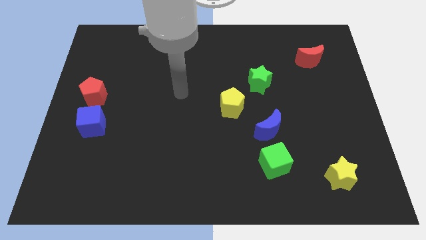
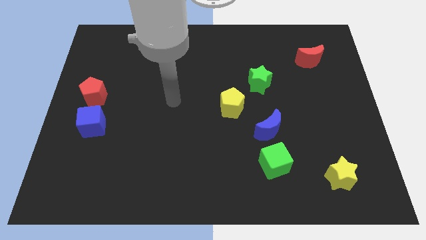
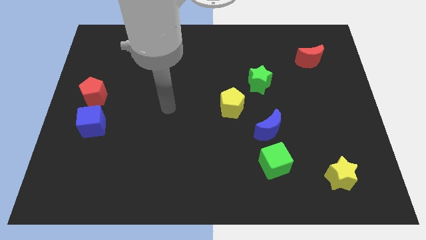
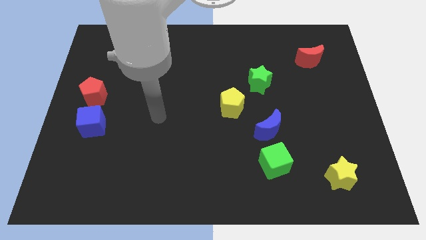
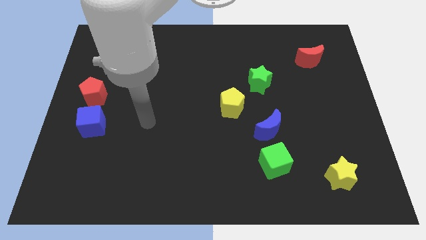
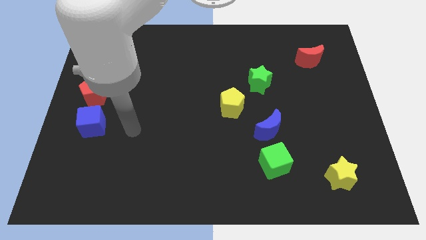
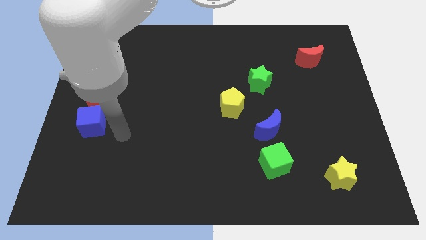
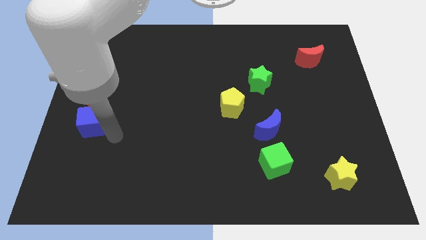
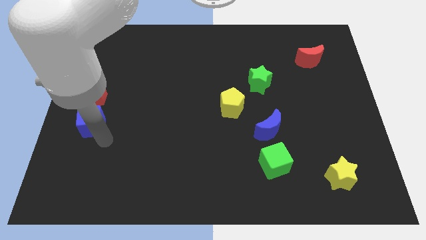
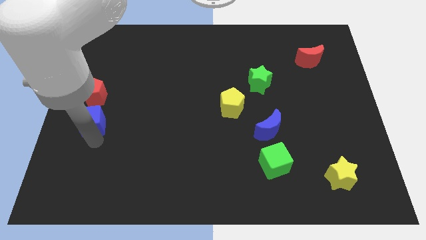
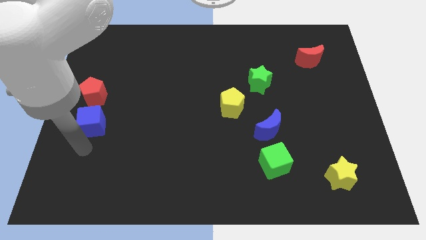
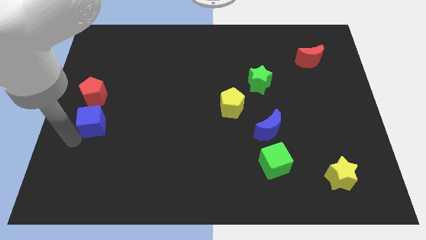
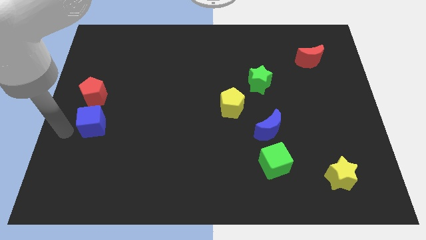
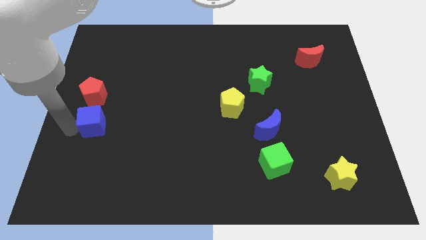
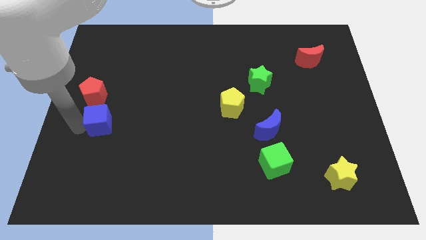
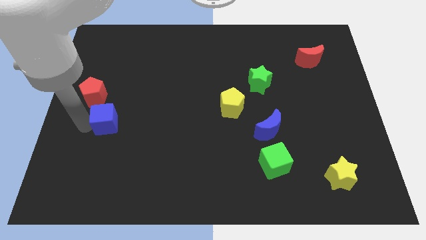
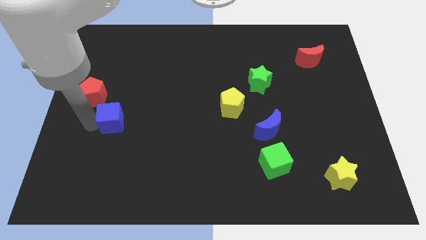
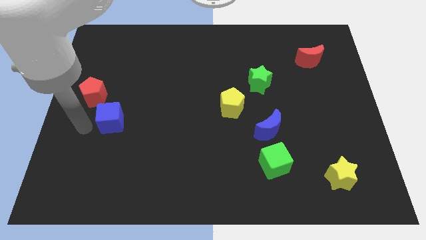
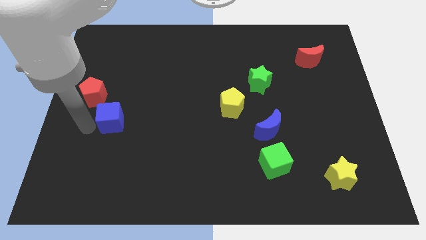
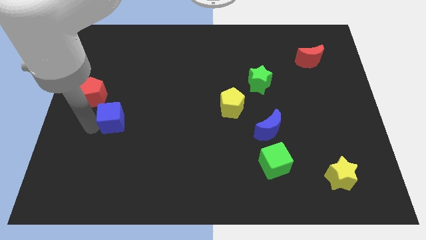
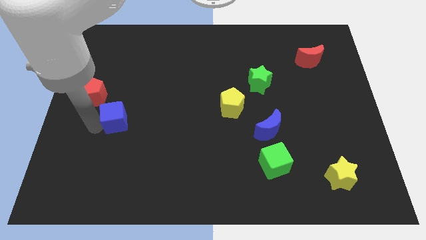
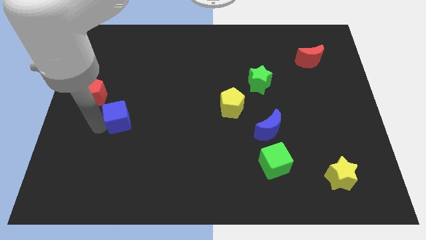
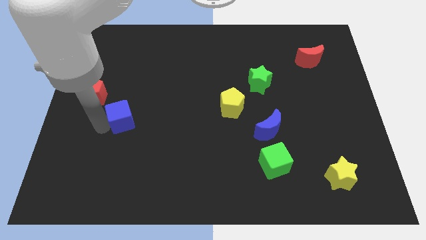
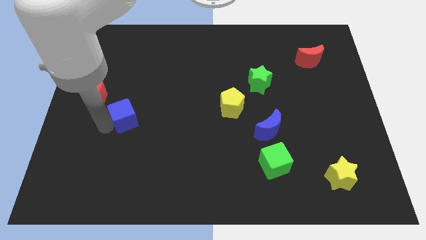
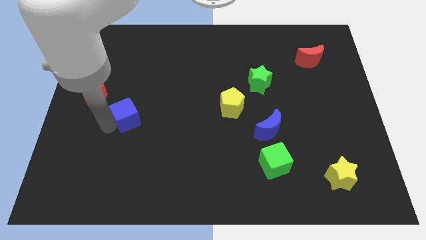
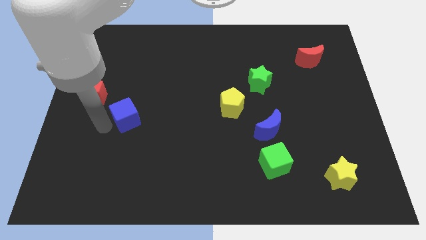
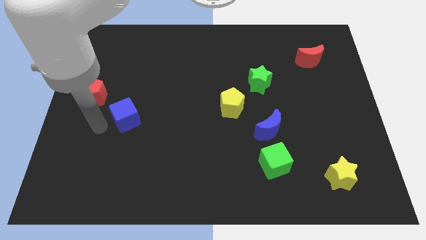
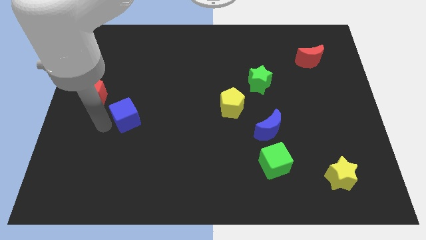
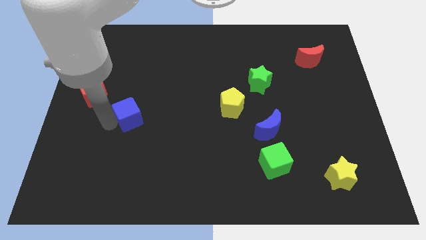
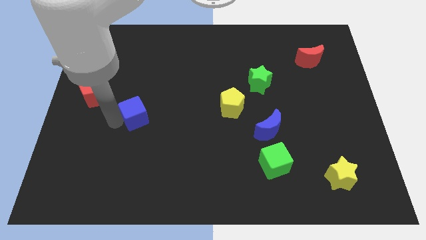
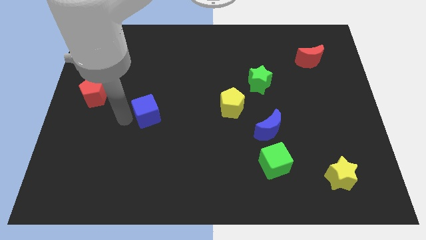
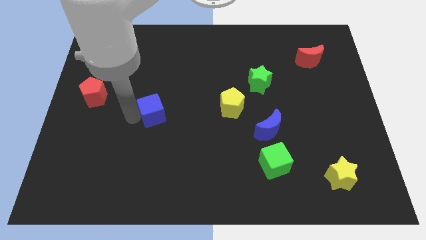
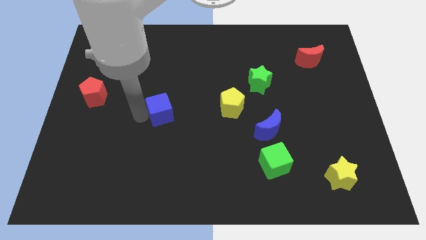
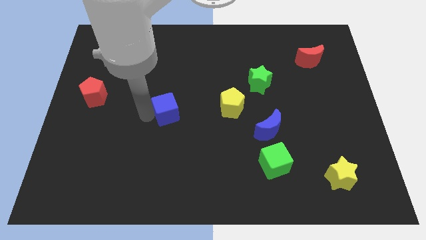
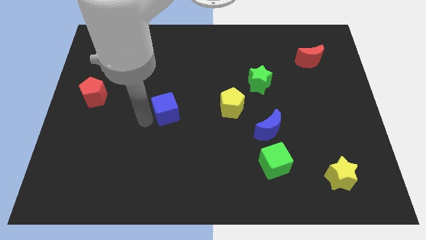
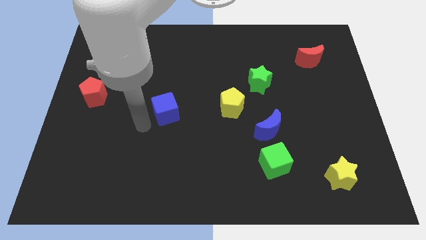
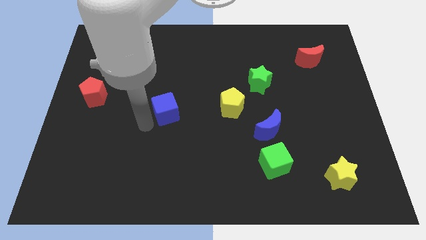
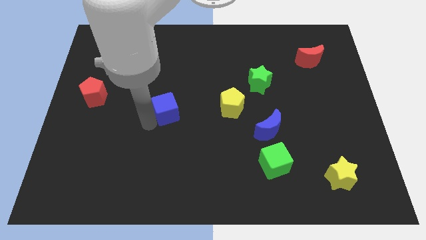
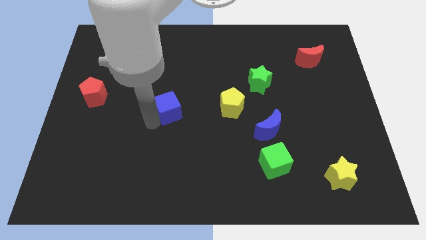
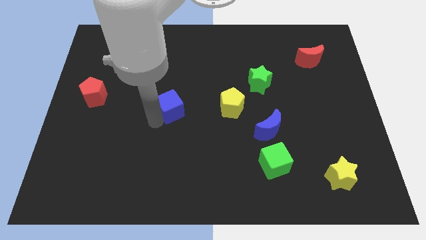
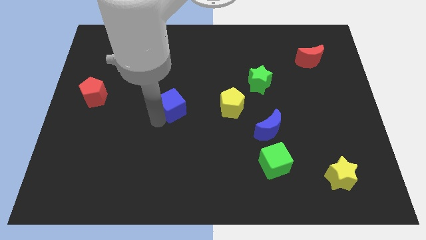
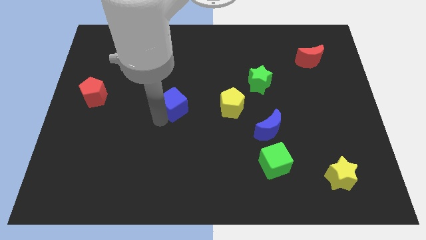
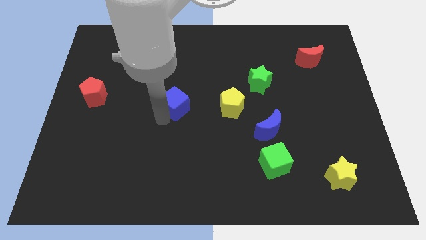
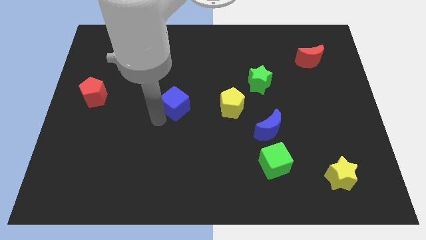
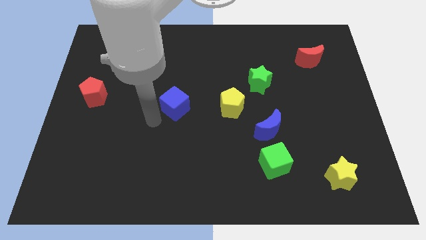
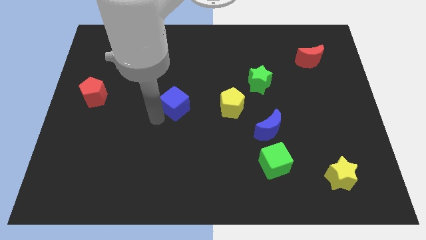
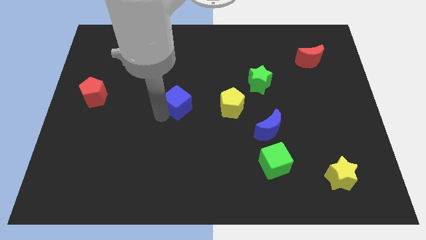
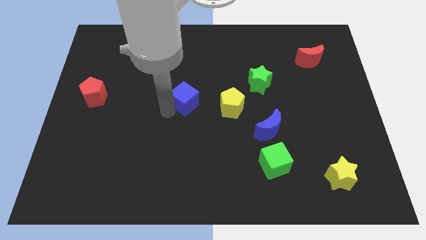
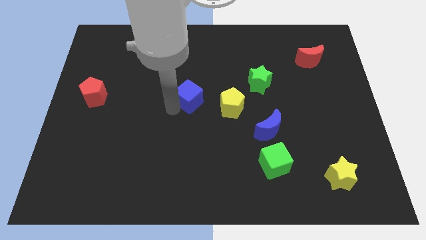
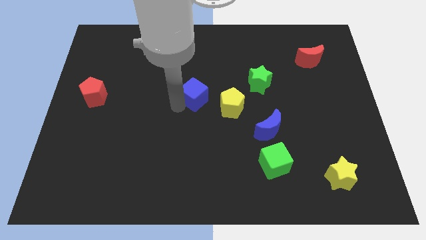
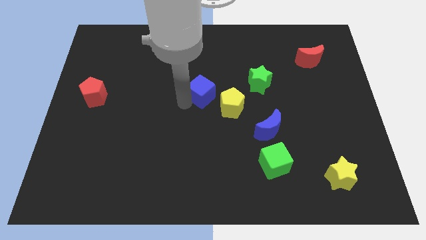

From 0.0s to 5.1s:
push the blue cube left of the green star

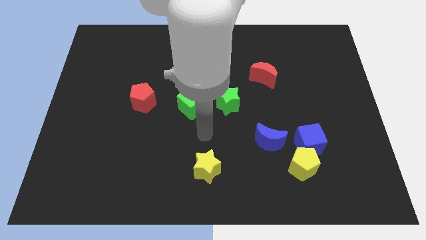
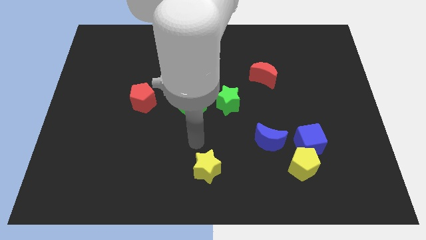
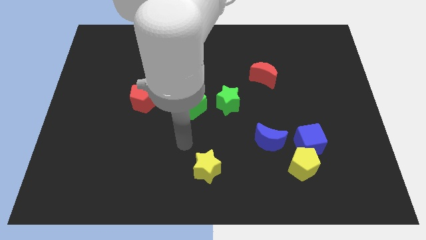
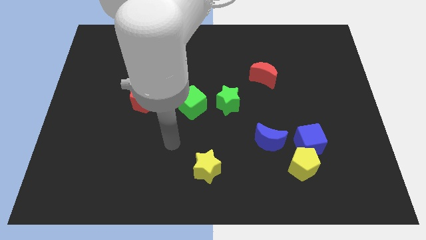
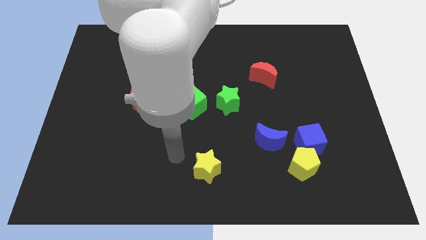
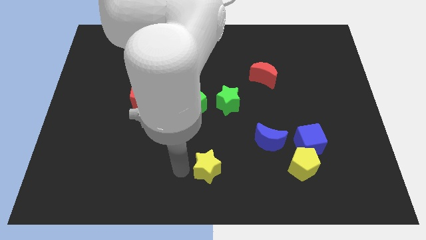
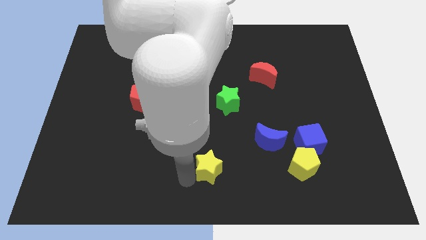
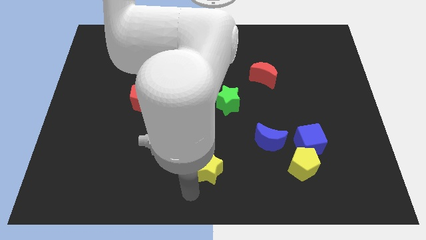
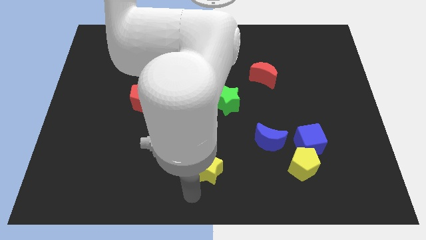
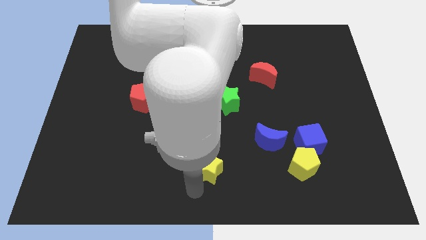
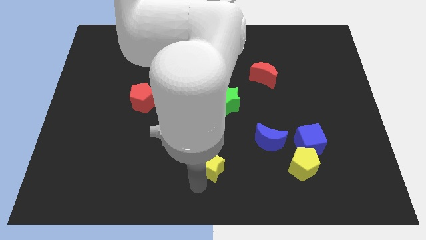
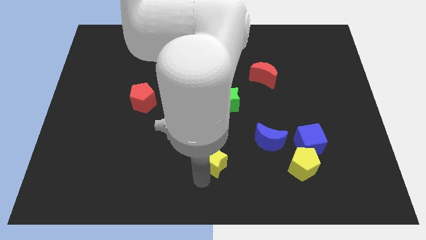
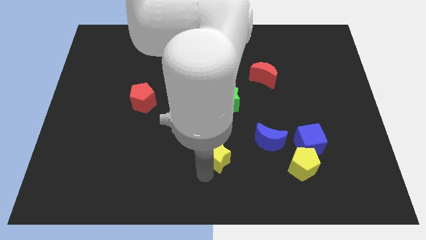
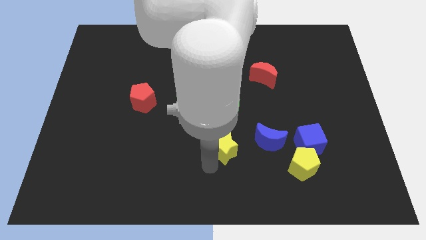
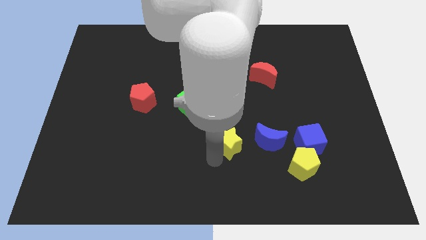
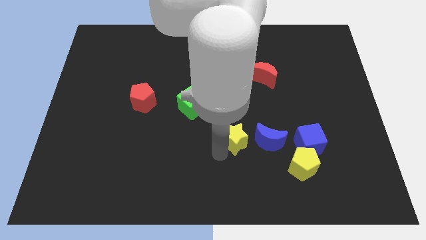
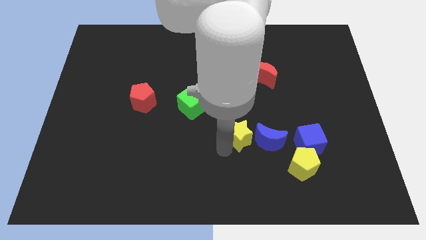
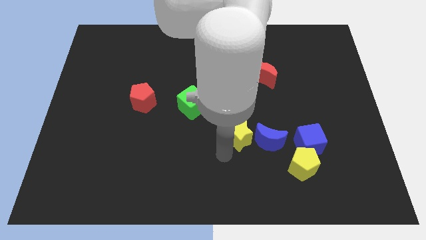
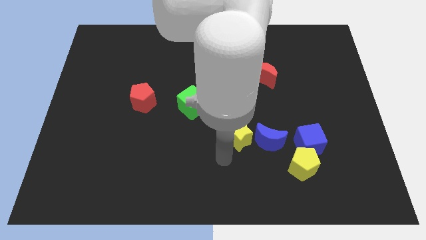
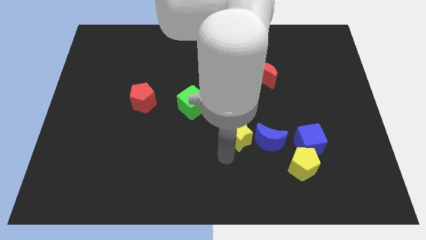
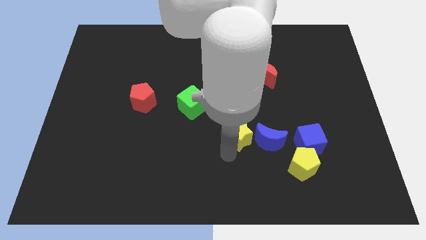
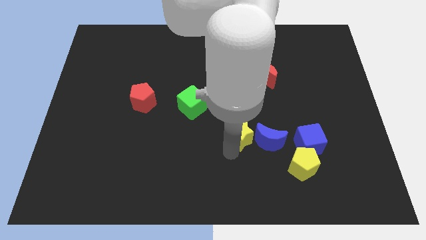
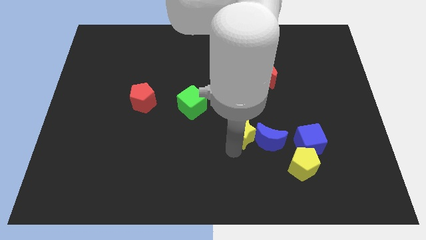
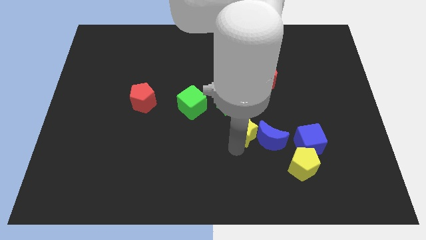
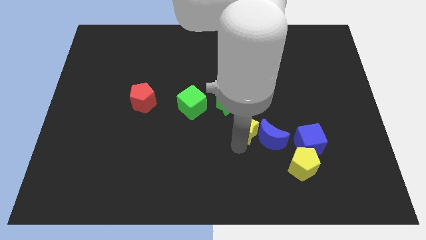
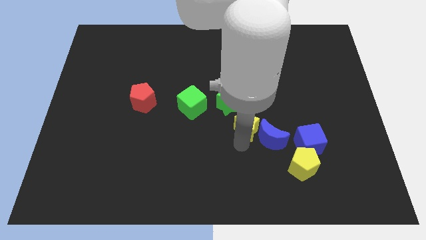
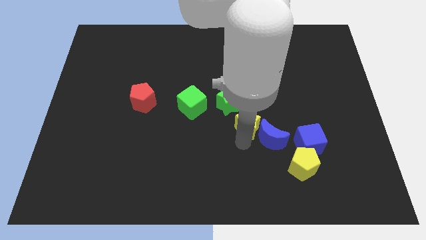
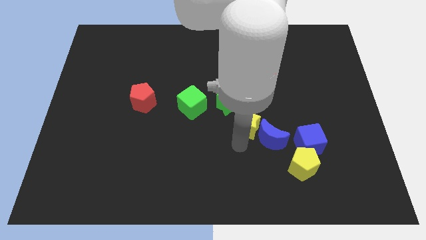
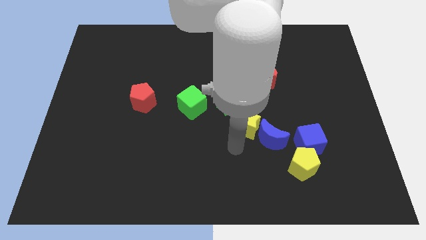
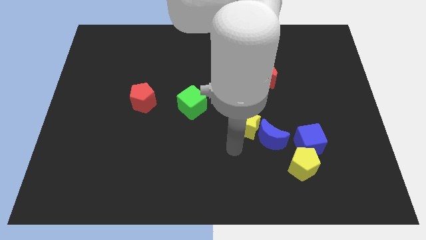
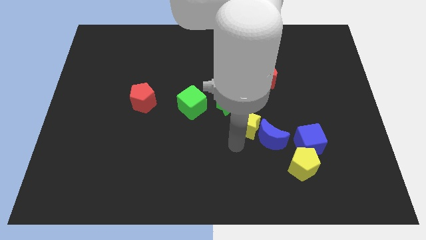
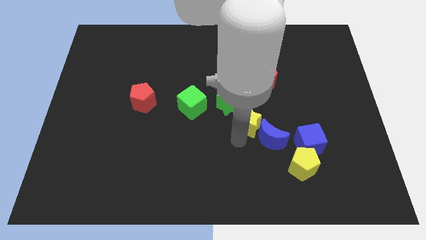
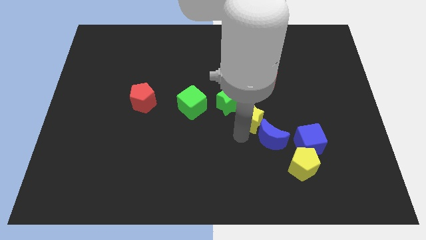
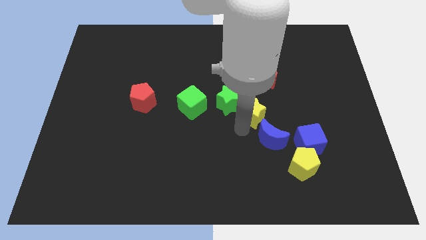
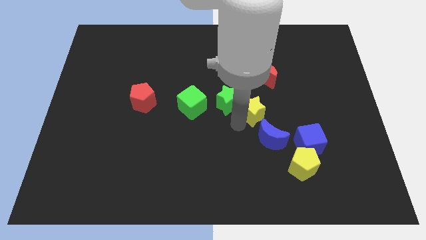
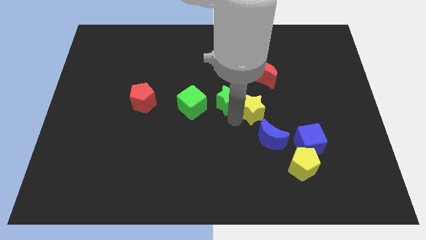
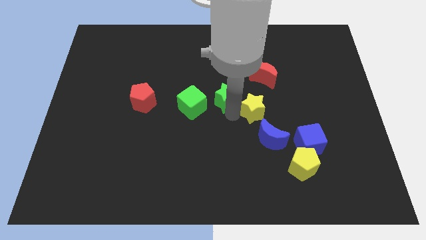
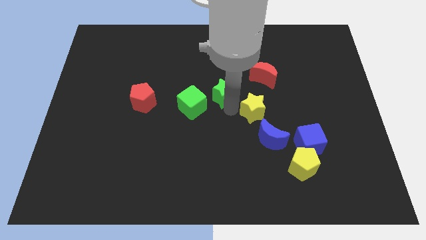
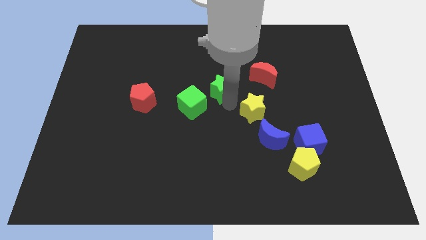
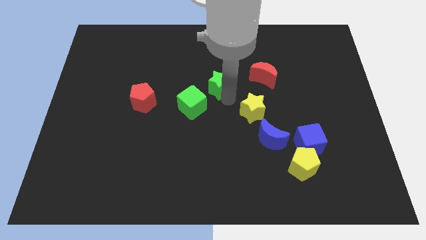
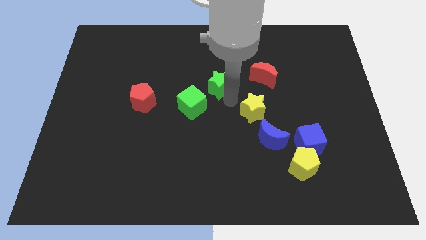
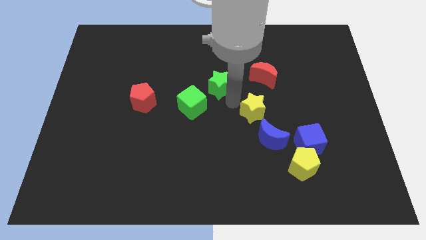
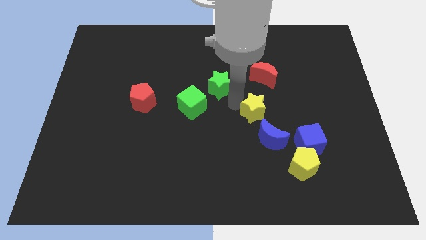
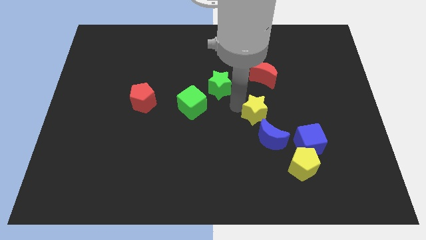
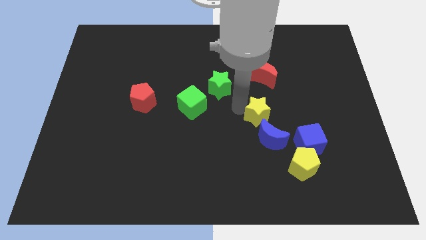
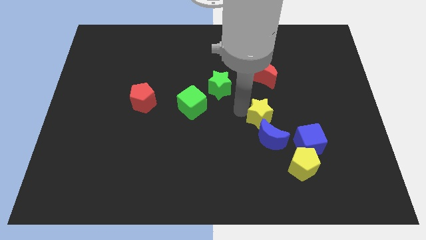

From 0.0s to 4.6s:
push the yellow star to the top left of the blue cube
